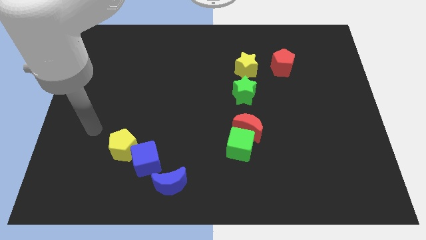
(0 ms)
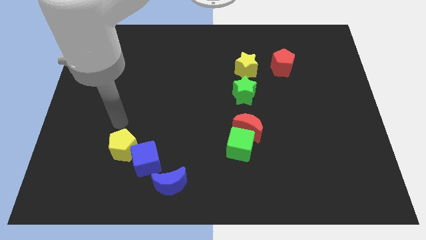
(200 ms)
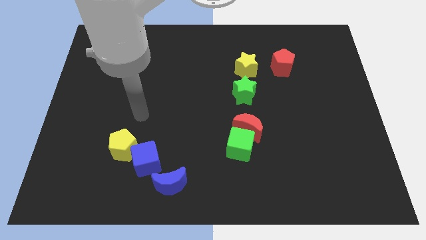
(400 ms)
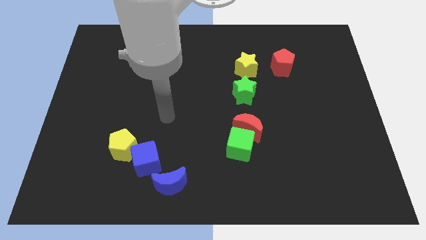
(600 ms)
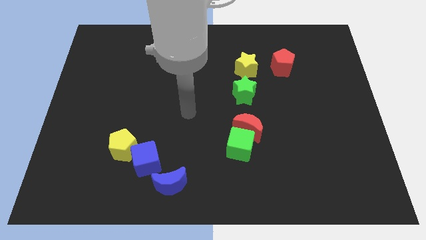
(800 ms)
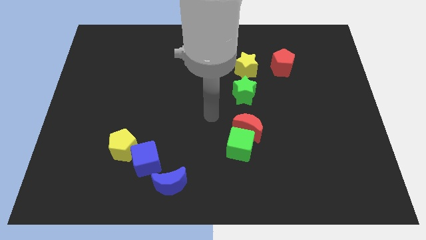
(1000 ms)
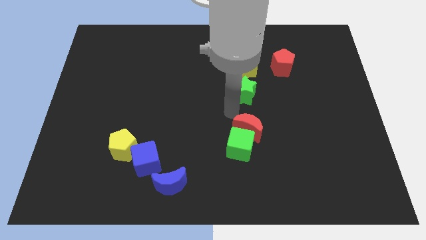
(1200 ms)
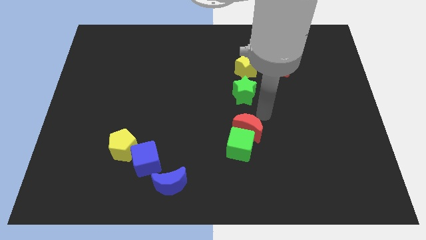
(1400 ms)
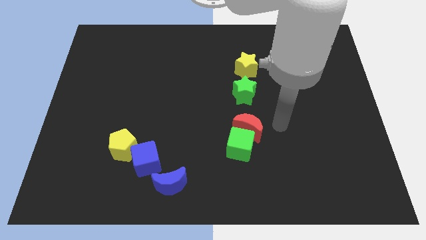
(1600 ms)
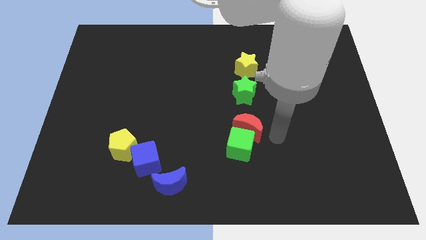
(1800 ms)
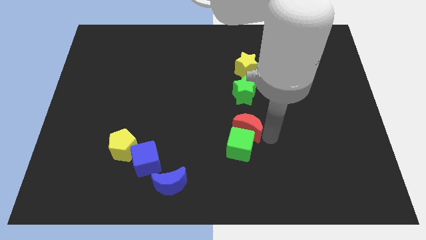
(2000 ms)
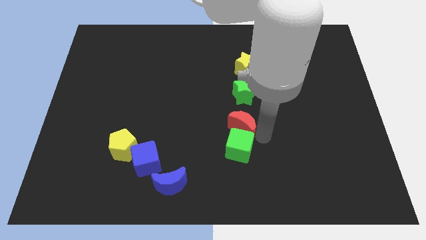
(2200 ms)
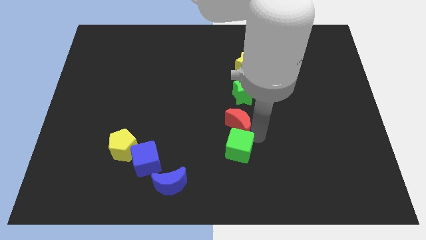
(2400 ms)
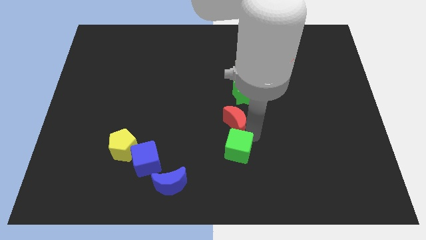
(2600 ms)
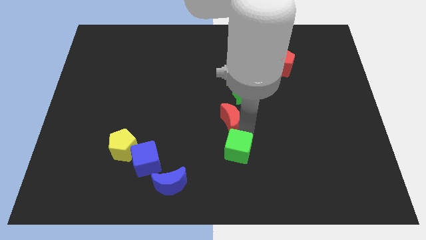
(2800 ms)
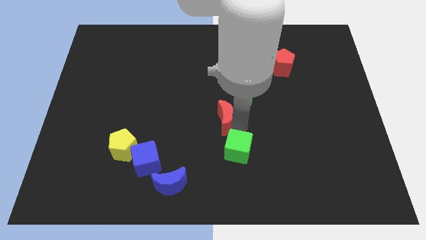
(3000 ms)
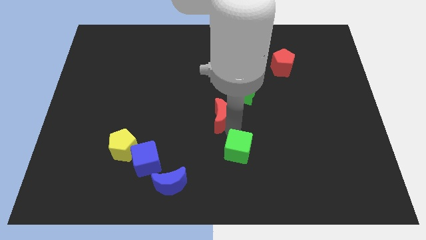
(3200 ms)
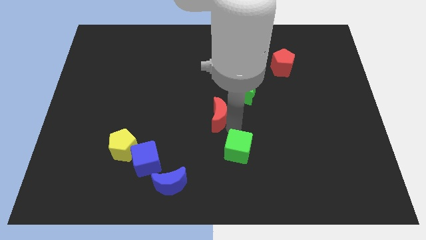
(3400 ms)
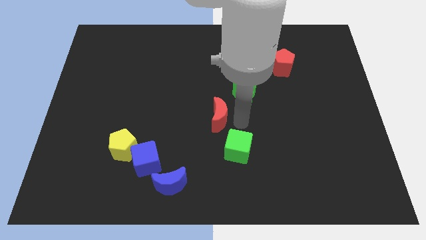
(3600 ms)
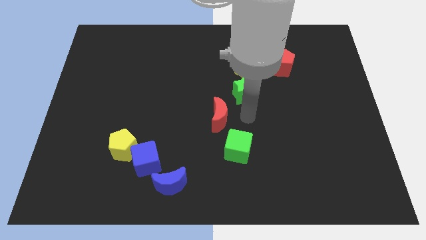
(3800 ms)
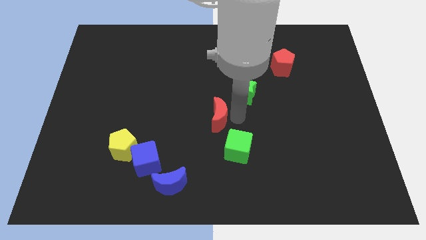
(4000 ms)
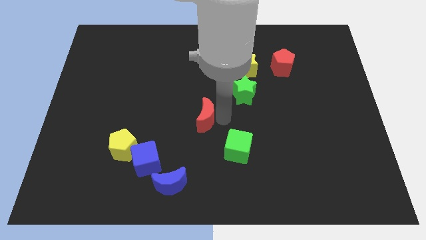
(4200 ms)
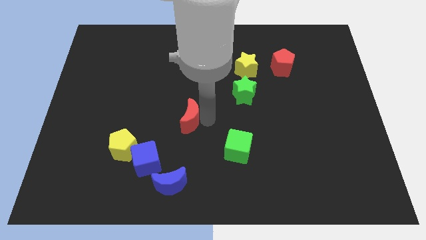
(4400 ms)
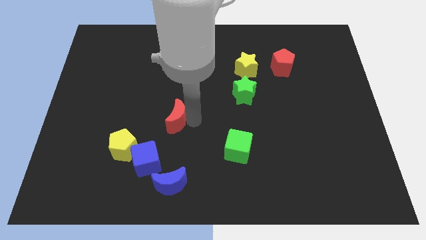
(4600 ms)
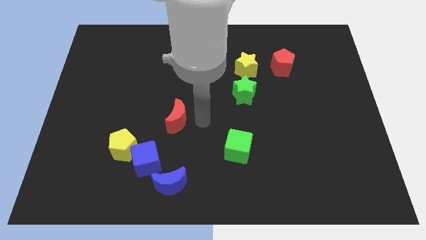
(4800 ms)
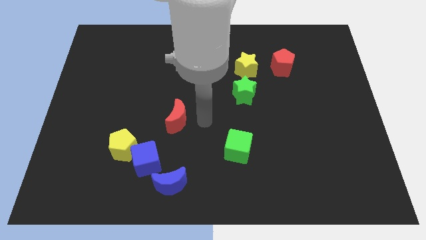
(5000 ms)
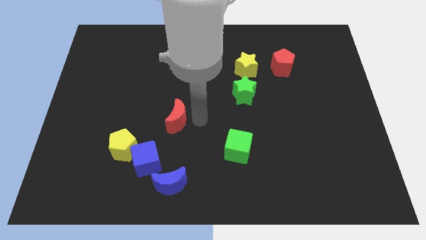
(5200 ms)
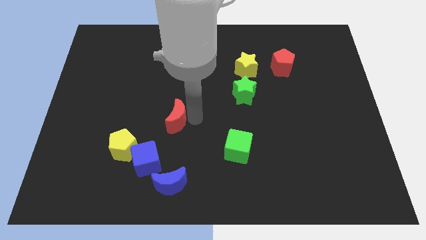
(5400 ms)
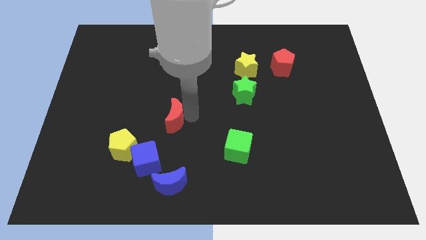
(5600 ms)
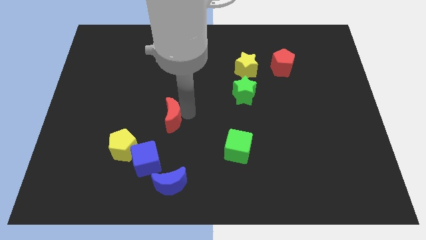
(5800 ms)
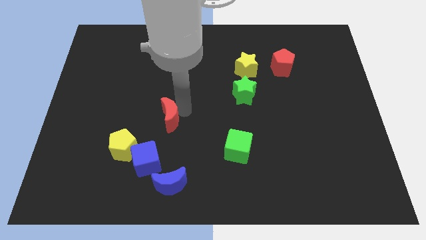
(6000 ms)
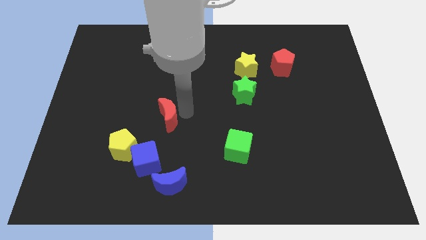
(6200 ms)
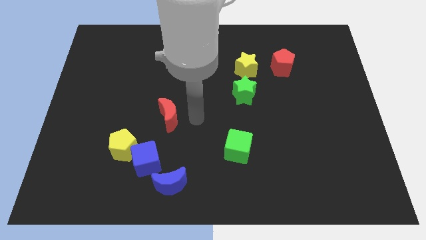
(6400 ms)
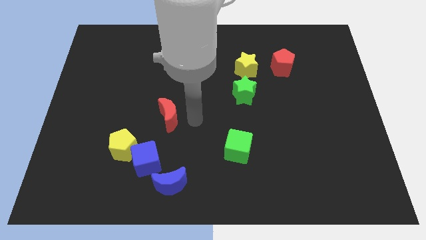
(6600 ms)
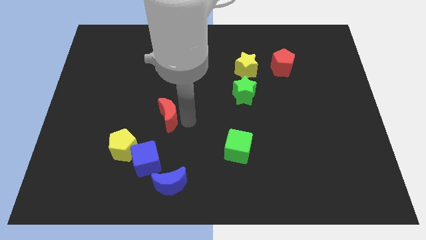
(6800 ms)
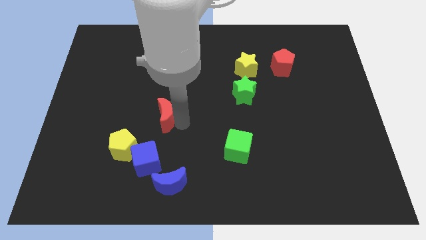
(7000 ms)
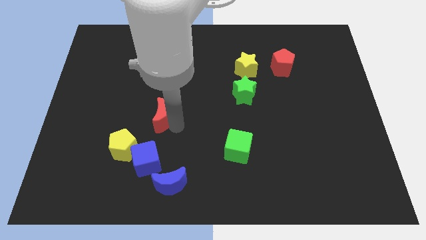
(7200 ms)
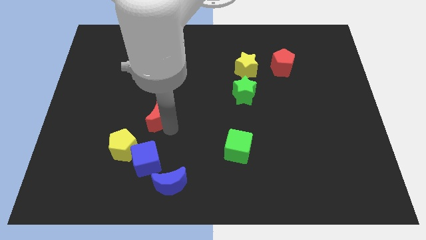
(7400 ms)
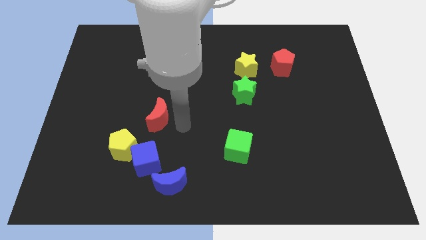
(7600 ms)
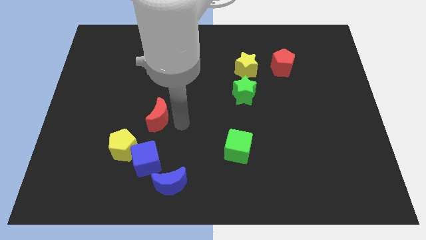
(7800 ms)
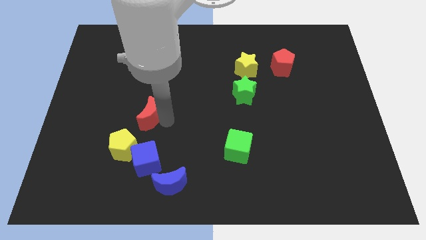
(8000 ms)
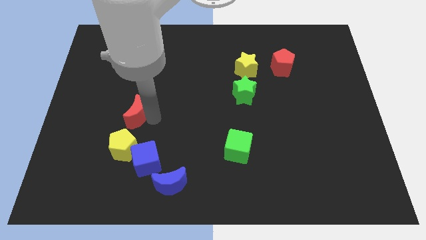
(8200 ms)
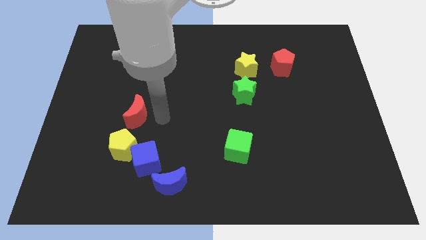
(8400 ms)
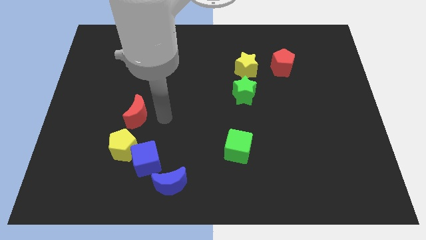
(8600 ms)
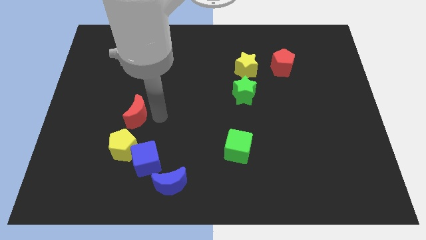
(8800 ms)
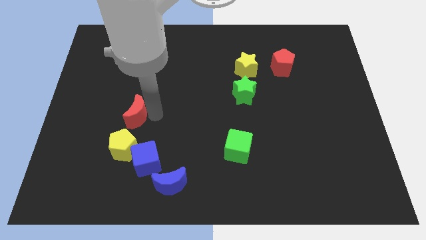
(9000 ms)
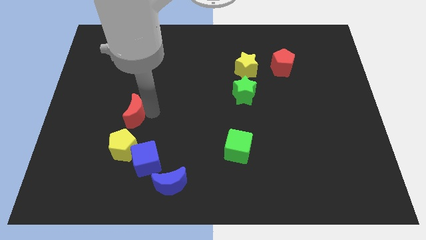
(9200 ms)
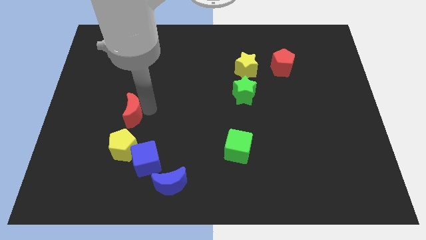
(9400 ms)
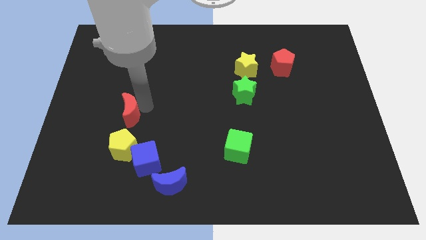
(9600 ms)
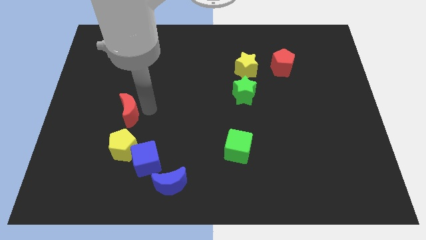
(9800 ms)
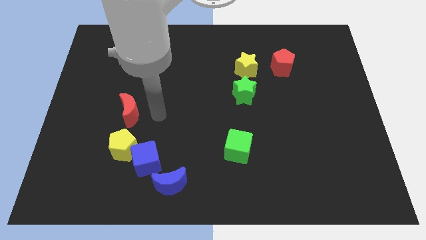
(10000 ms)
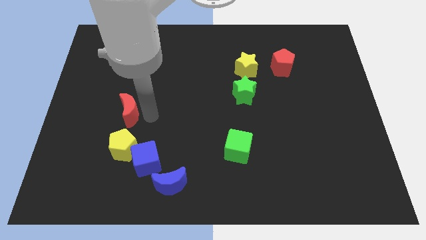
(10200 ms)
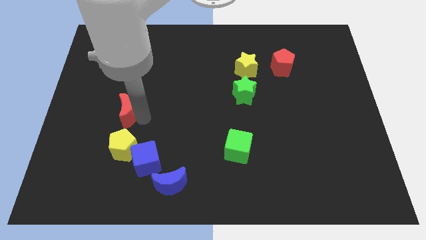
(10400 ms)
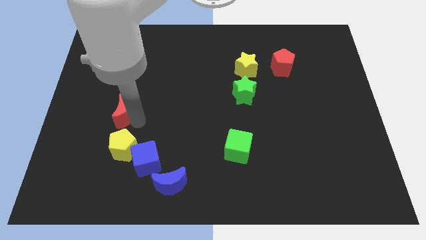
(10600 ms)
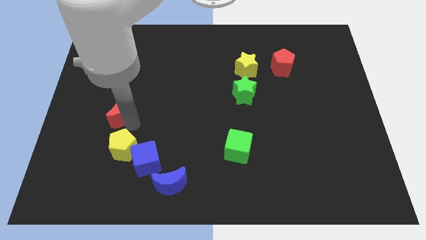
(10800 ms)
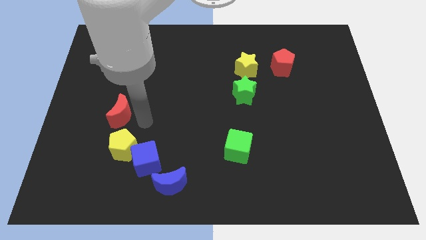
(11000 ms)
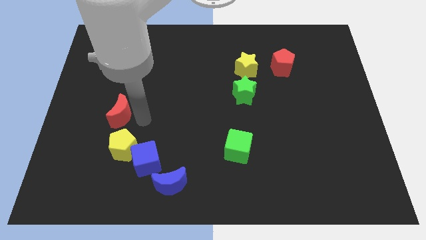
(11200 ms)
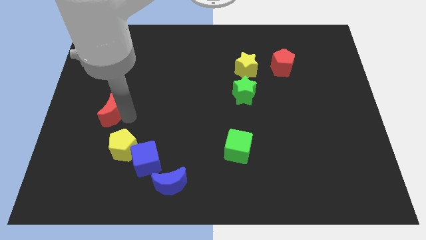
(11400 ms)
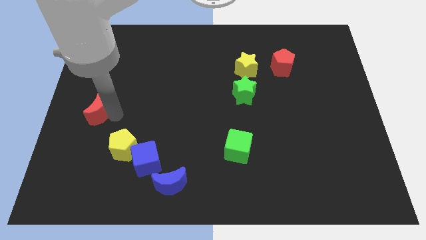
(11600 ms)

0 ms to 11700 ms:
put the red moon to the left side

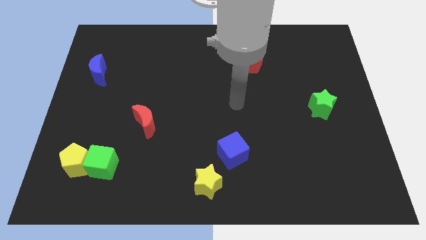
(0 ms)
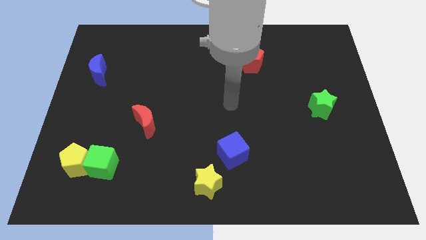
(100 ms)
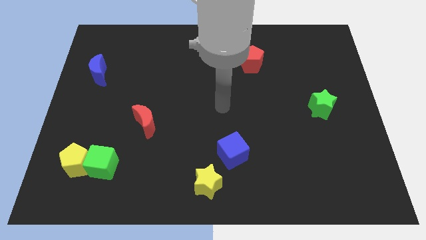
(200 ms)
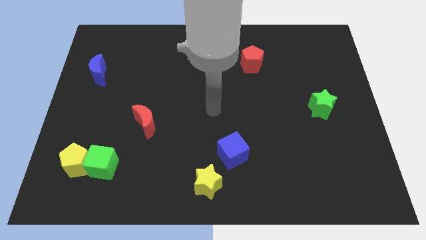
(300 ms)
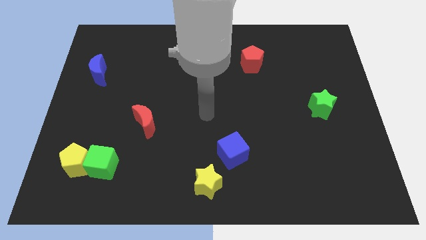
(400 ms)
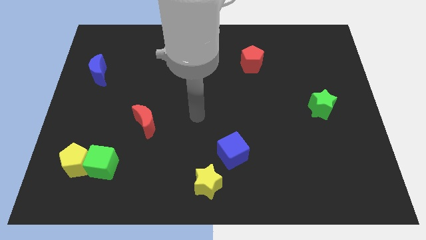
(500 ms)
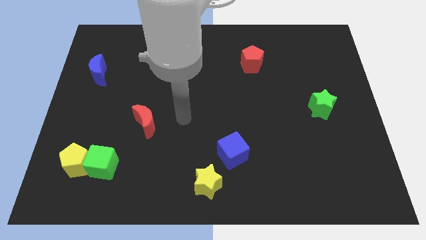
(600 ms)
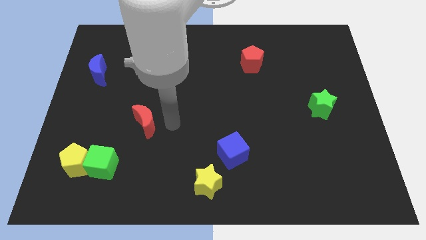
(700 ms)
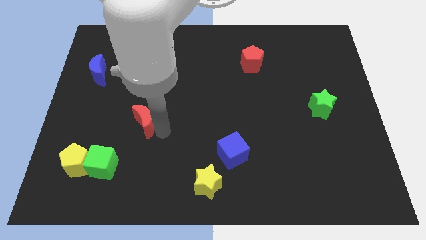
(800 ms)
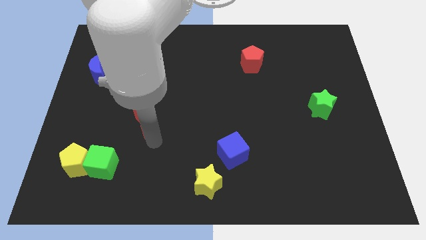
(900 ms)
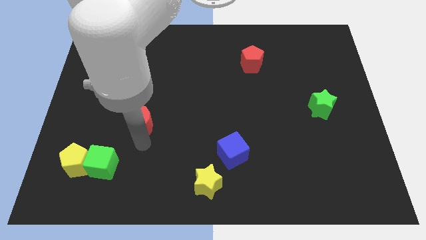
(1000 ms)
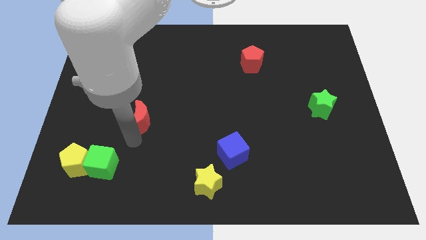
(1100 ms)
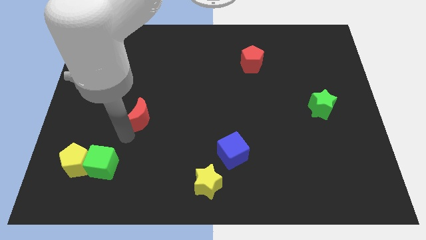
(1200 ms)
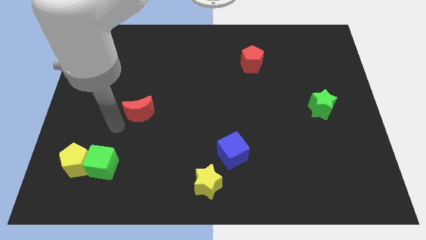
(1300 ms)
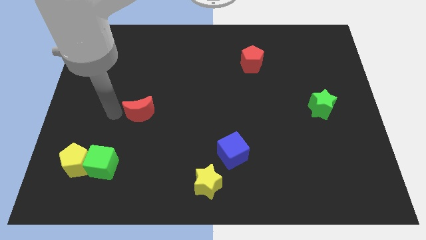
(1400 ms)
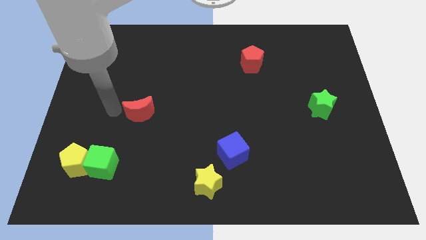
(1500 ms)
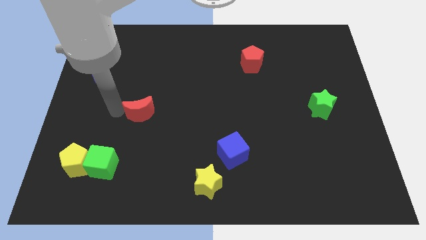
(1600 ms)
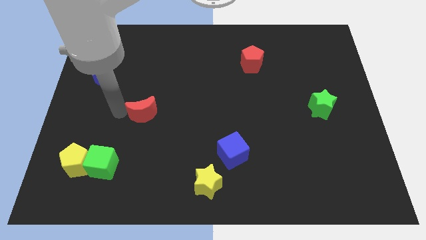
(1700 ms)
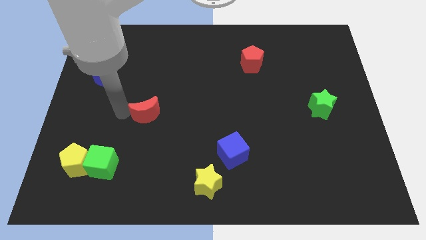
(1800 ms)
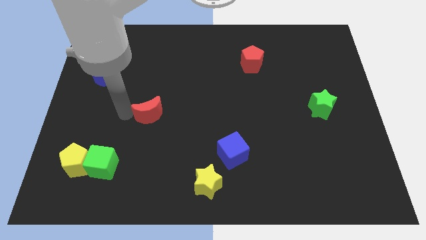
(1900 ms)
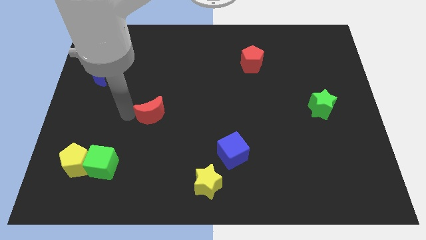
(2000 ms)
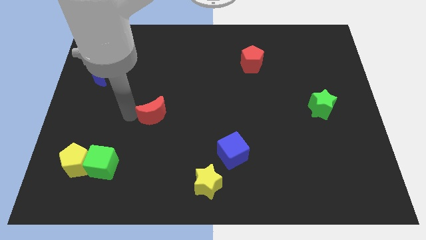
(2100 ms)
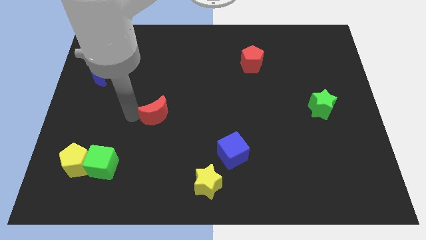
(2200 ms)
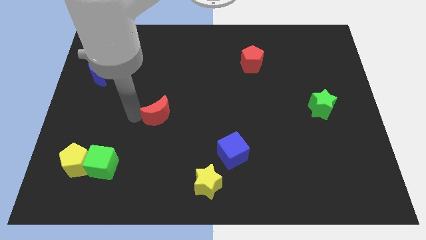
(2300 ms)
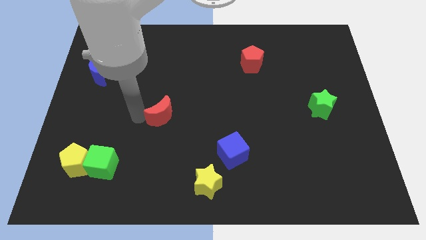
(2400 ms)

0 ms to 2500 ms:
move the red moon to the center of the board
